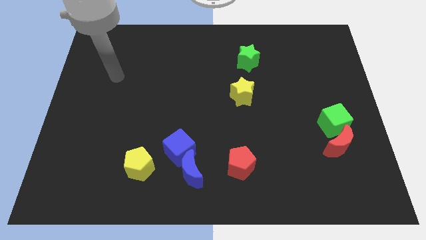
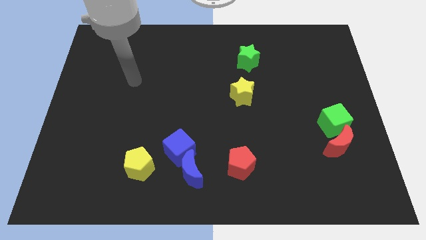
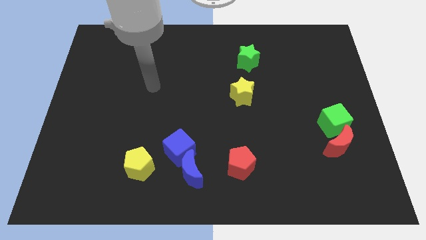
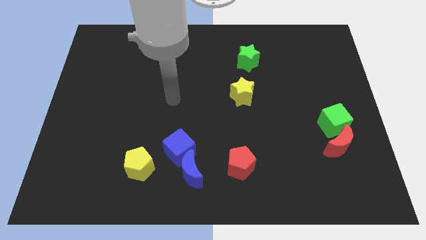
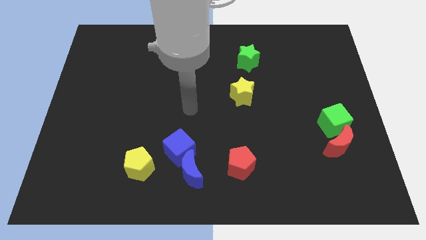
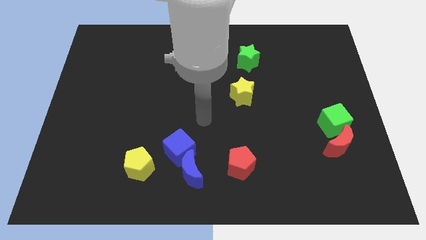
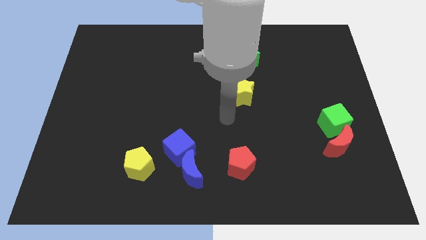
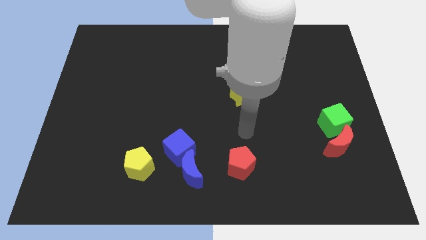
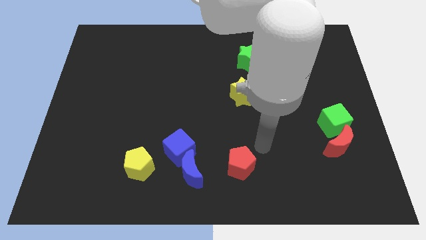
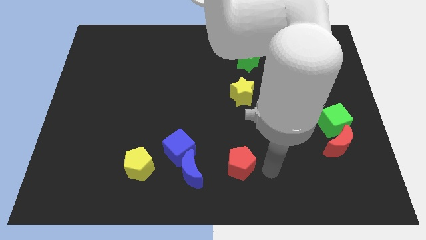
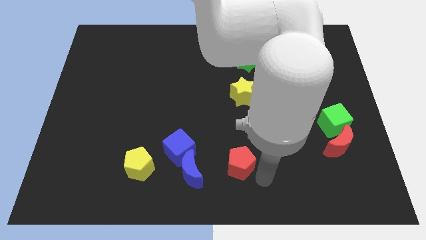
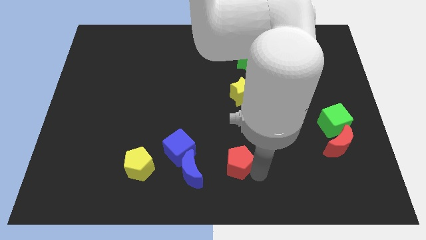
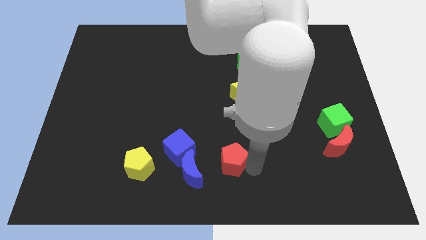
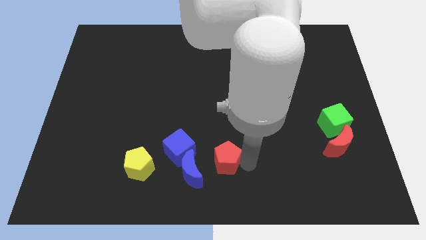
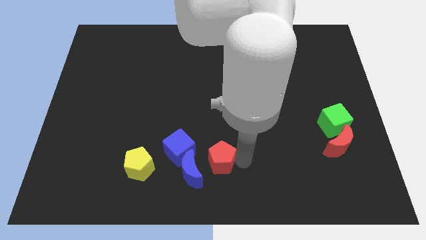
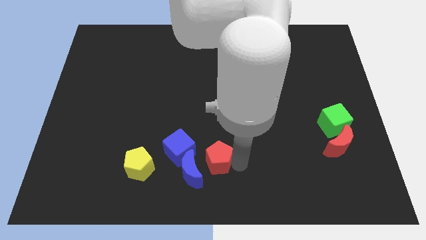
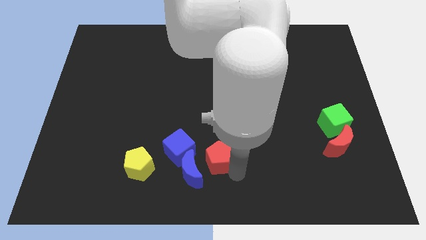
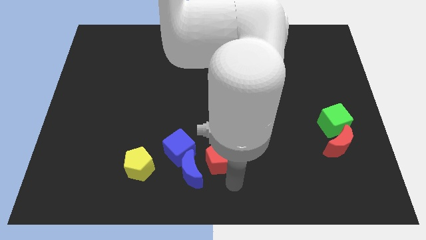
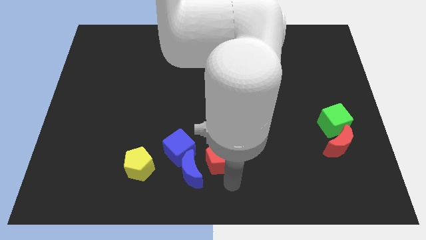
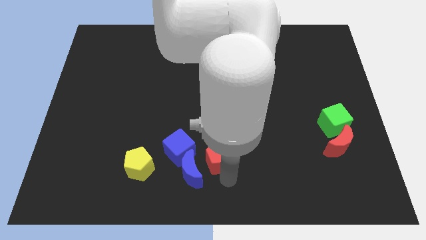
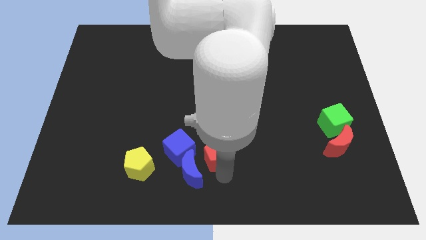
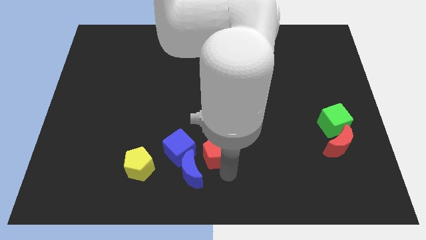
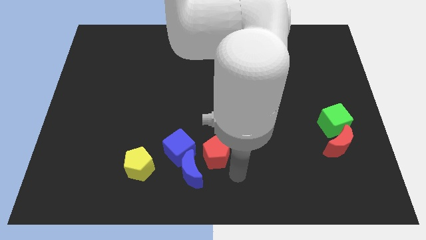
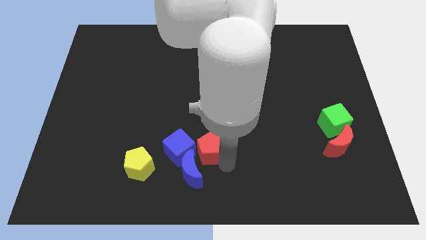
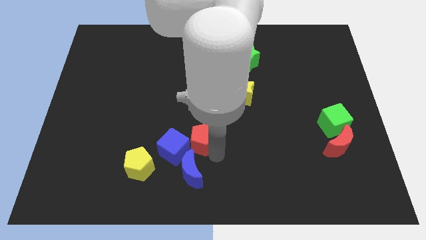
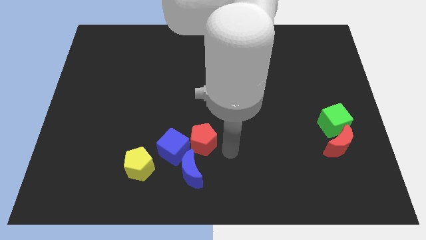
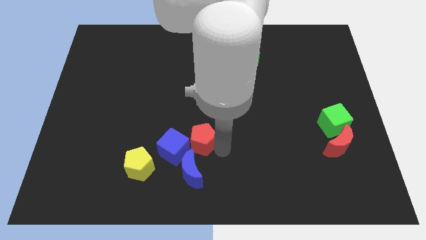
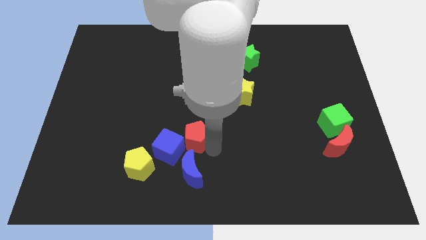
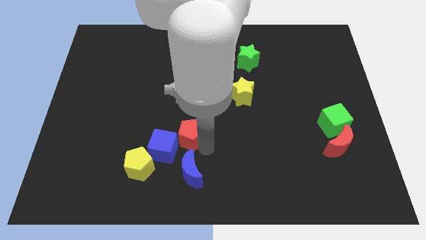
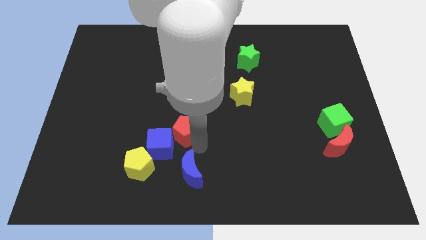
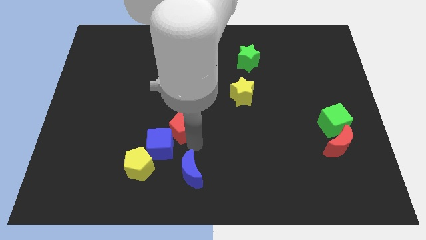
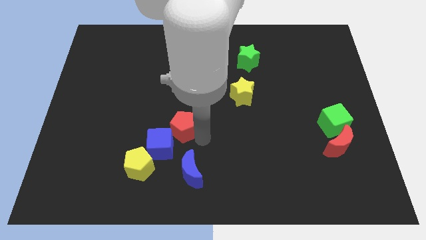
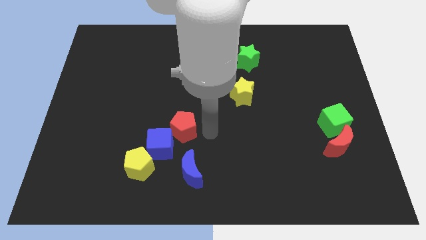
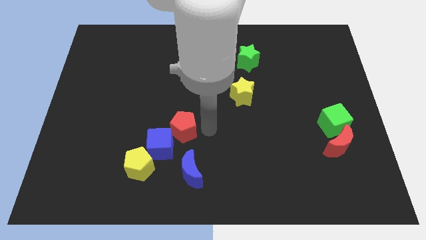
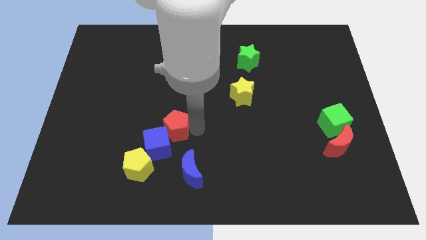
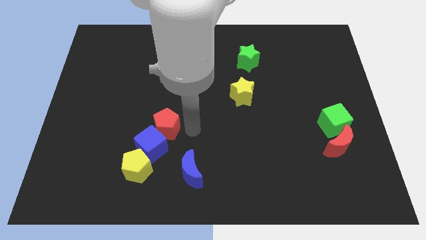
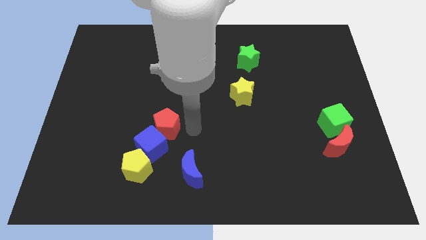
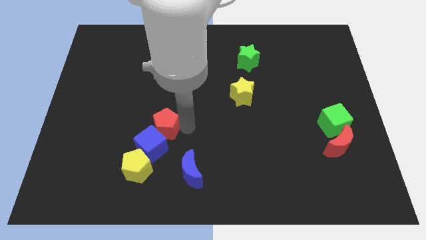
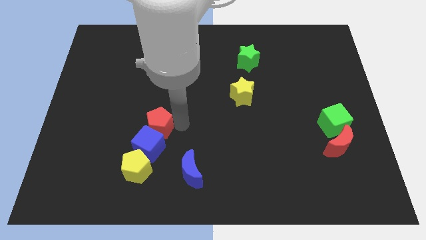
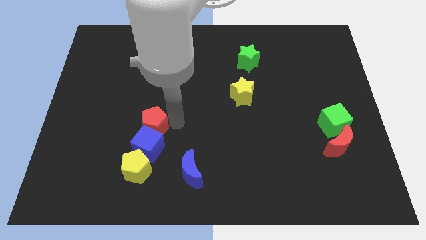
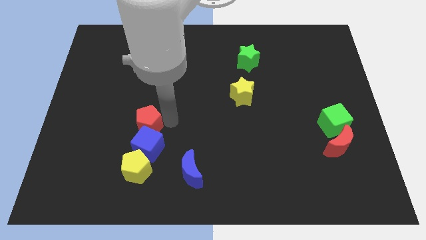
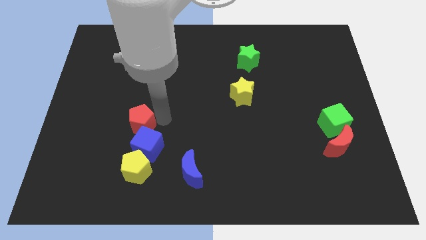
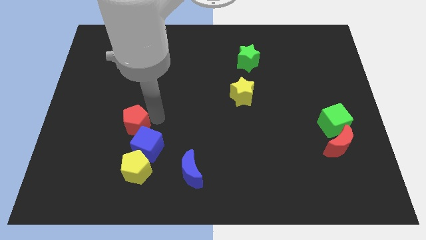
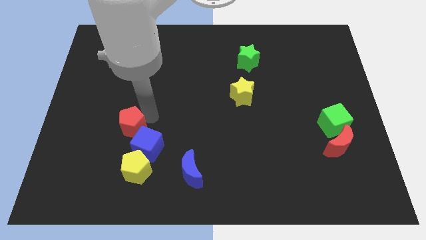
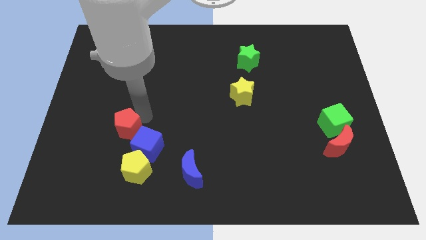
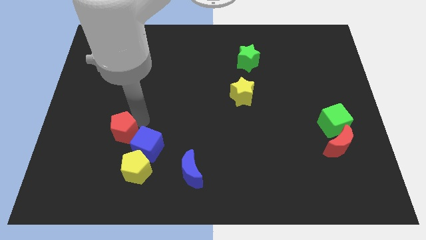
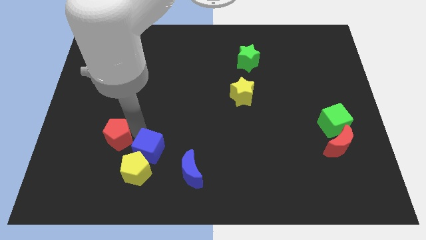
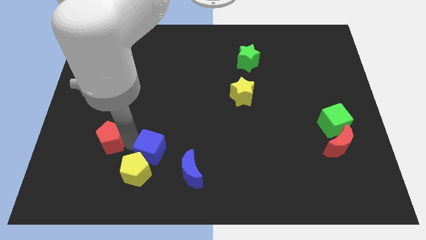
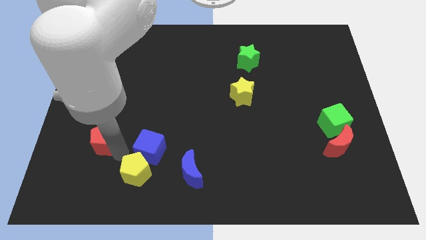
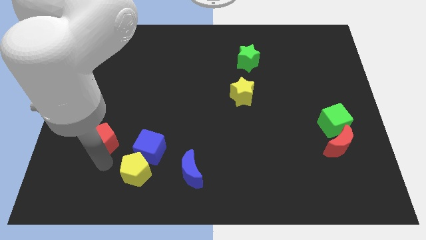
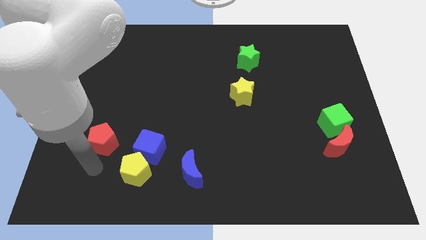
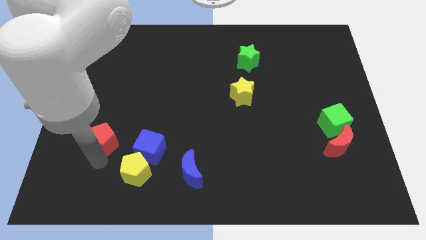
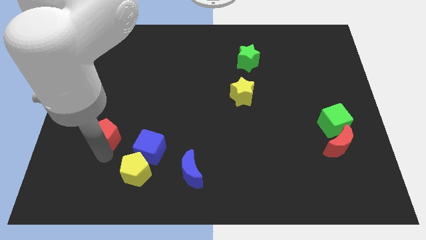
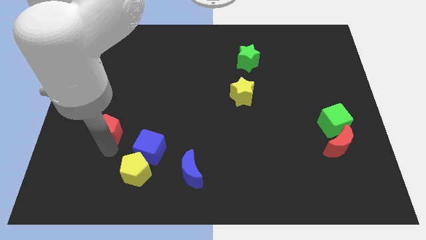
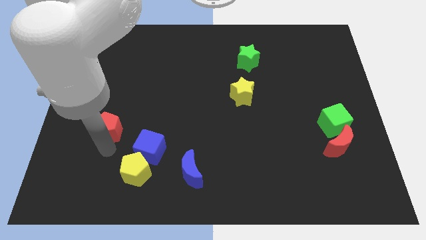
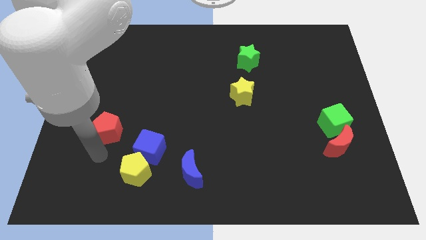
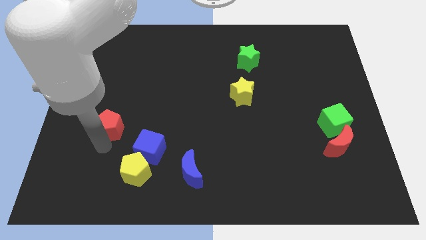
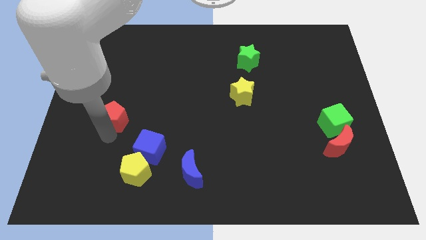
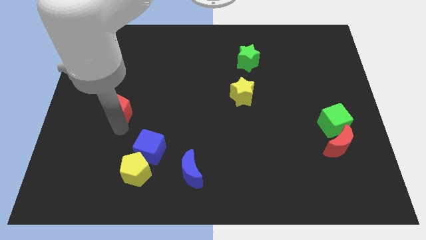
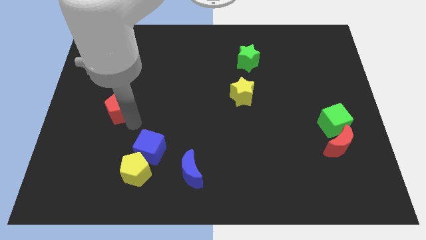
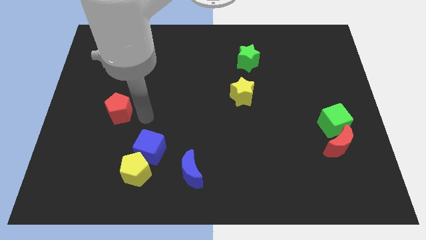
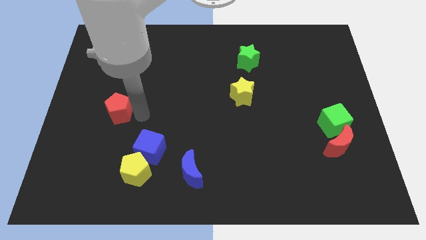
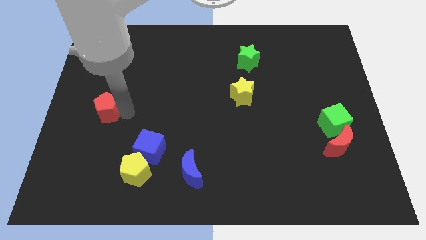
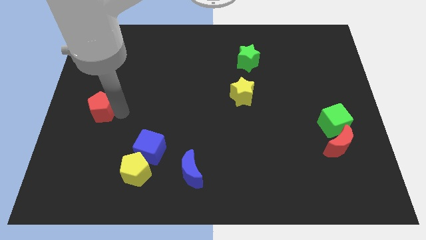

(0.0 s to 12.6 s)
put the red pentagon to the center left

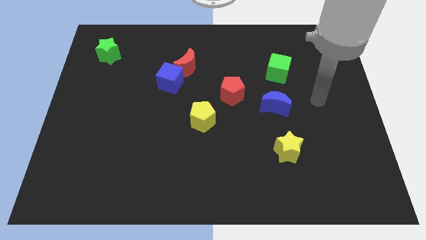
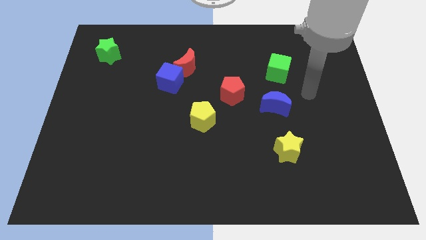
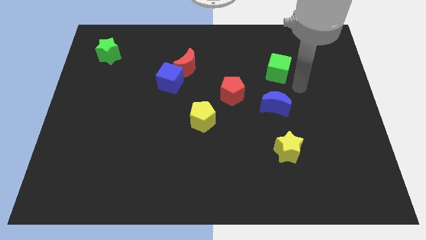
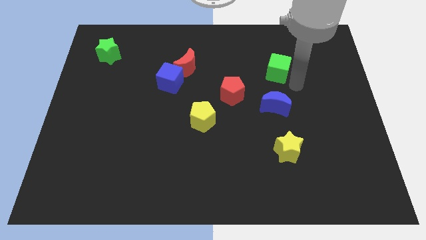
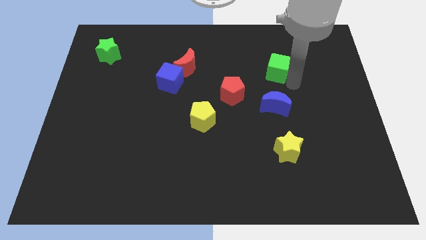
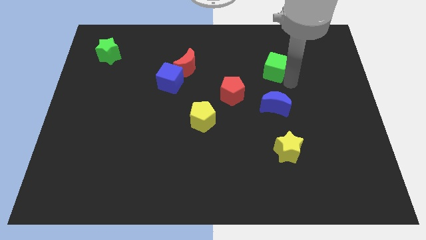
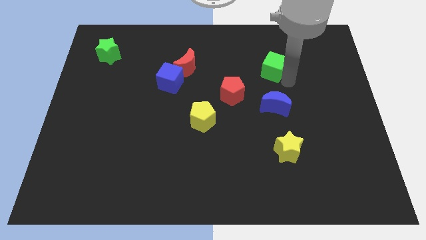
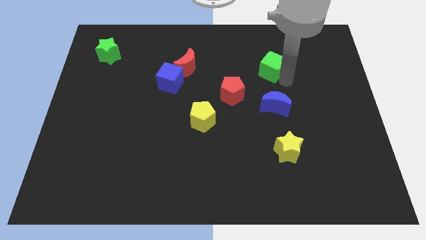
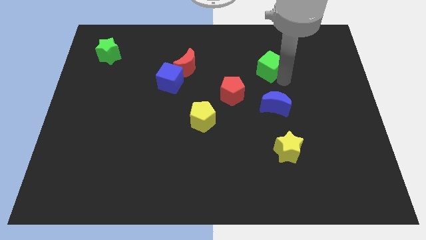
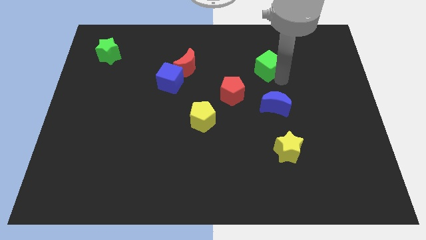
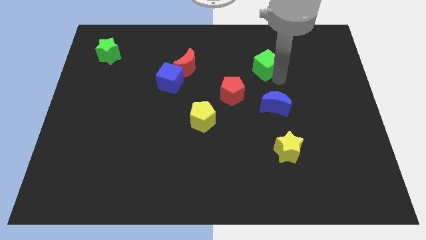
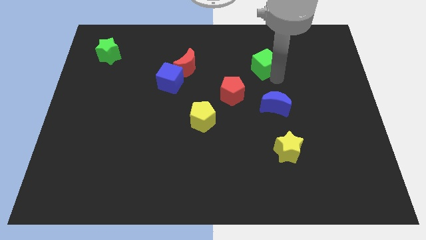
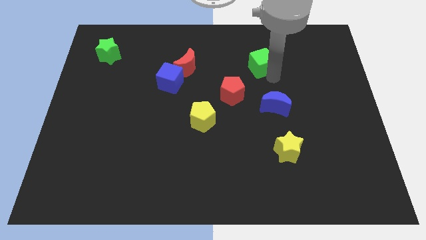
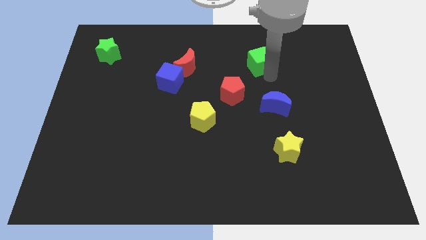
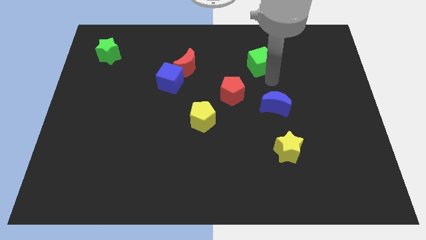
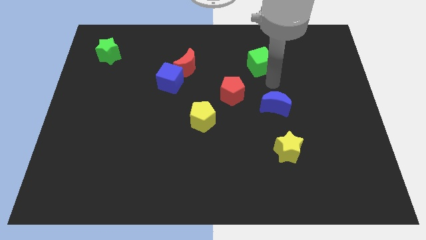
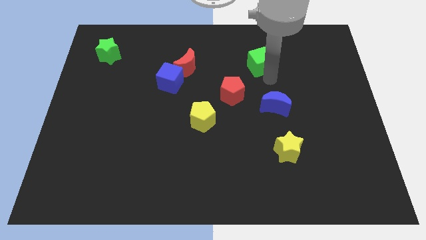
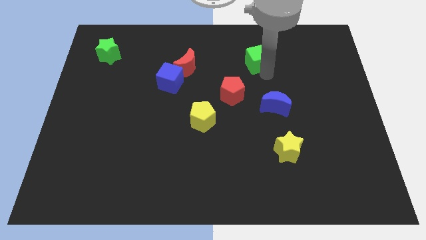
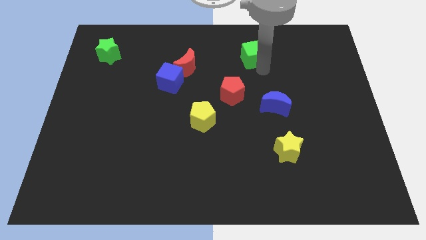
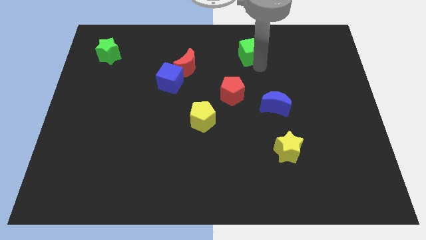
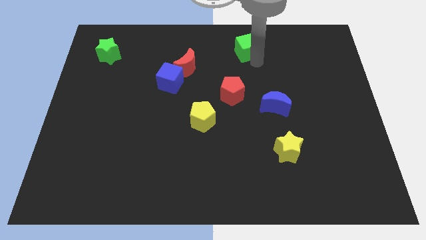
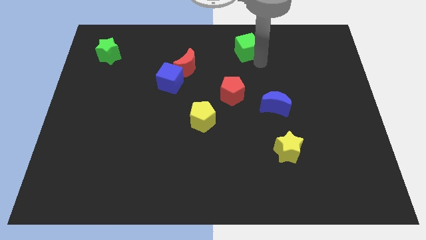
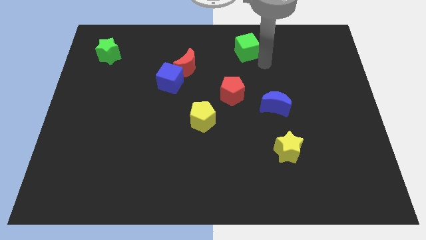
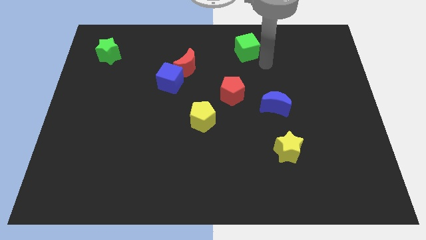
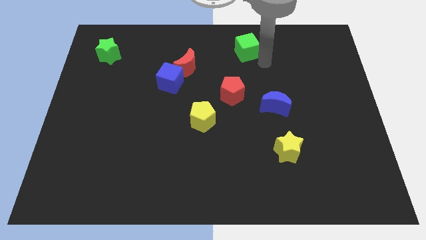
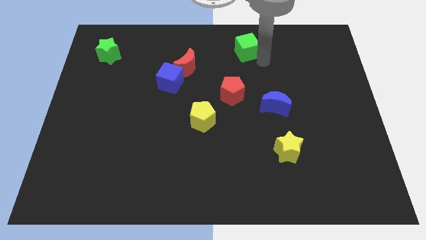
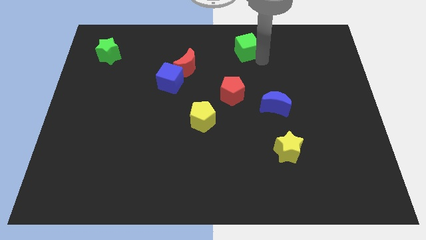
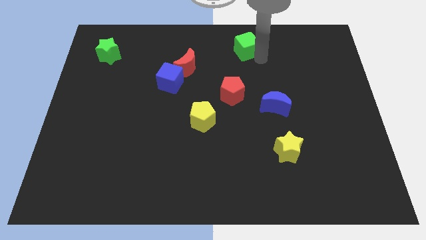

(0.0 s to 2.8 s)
push the green cube to the top
